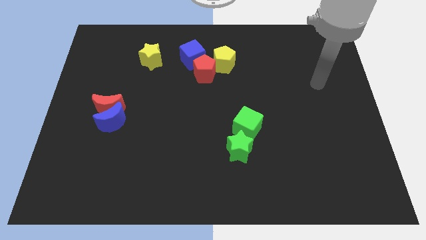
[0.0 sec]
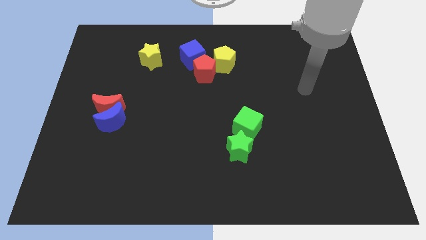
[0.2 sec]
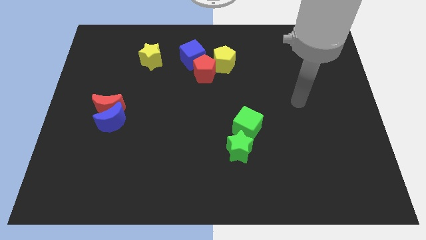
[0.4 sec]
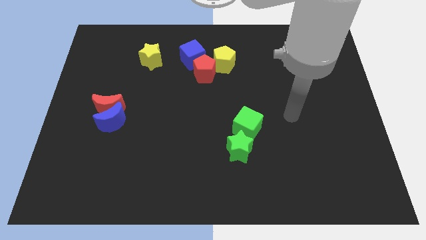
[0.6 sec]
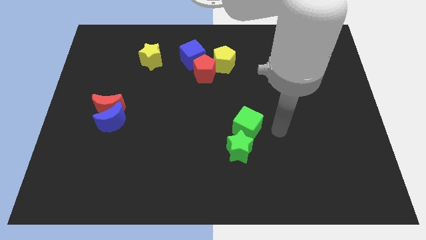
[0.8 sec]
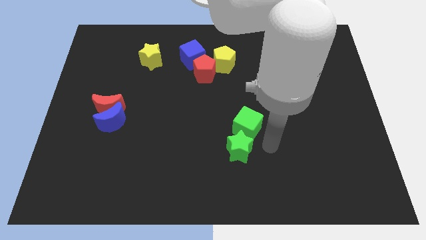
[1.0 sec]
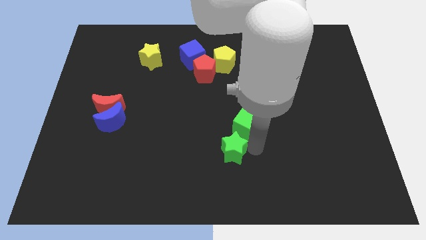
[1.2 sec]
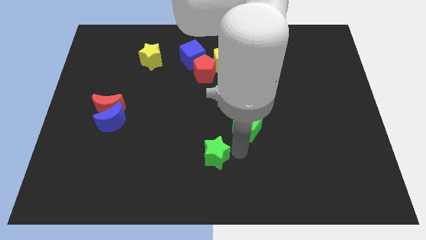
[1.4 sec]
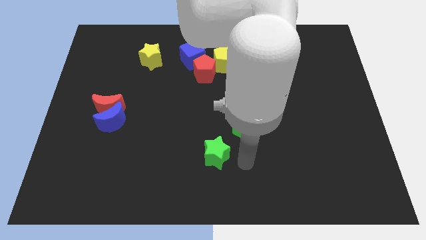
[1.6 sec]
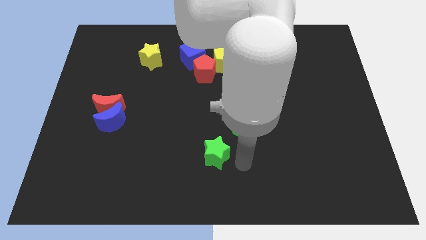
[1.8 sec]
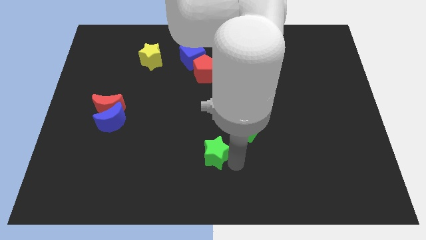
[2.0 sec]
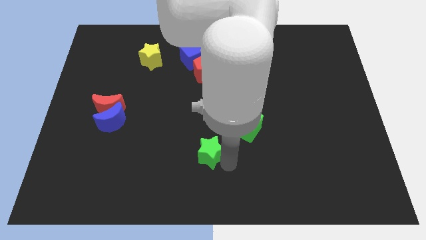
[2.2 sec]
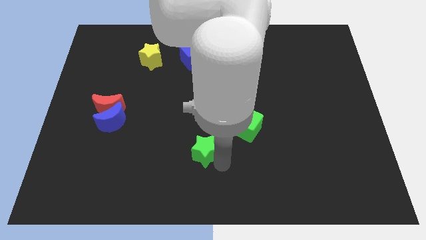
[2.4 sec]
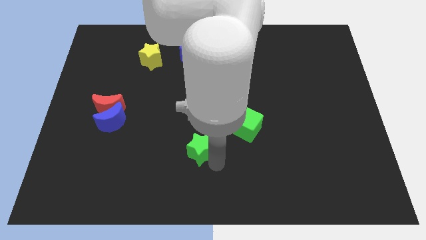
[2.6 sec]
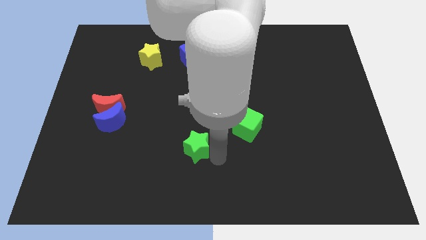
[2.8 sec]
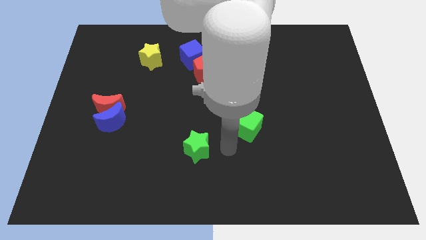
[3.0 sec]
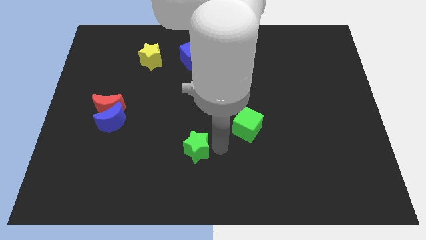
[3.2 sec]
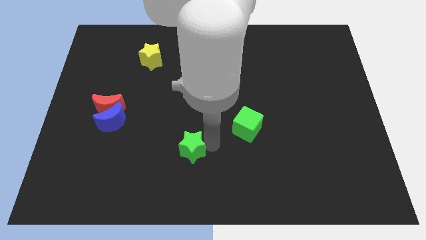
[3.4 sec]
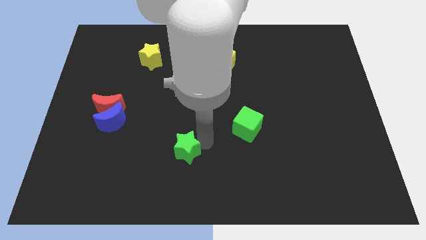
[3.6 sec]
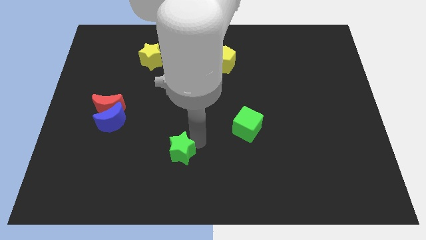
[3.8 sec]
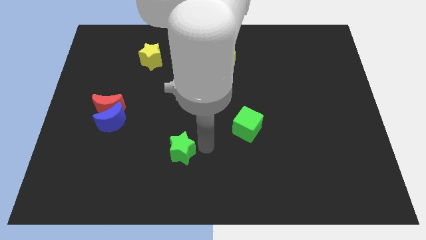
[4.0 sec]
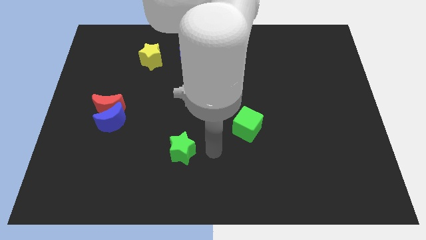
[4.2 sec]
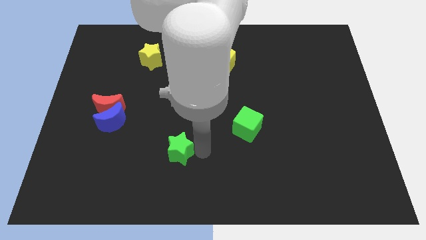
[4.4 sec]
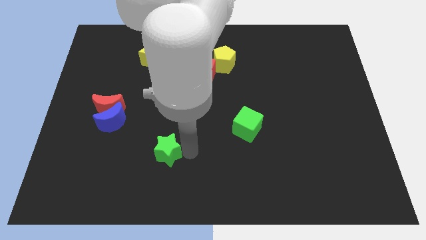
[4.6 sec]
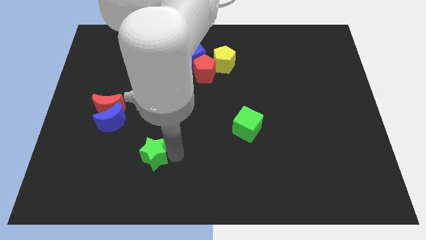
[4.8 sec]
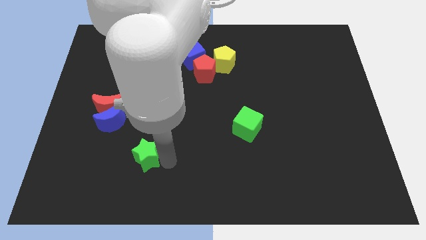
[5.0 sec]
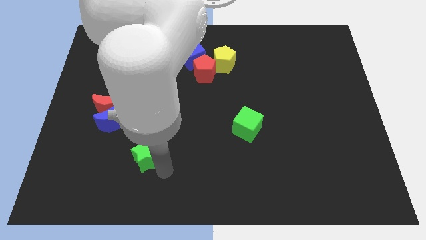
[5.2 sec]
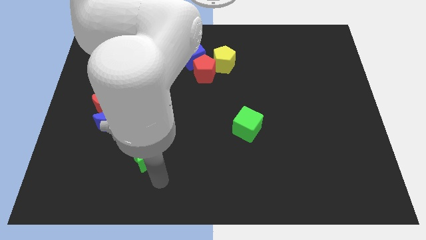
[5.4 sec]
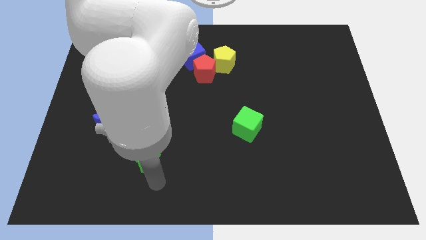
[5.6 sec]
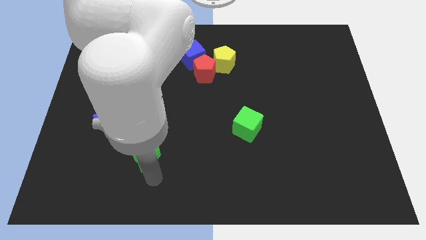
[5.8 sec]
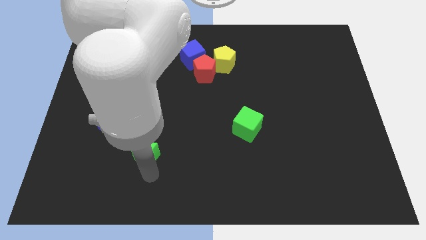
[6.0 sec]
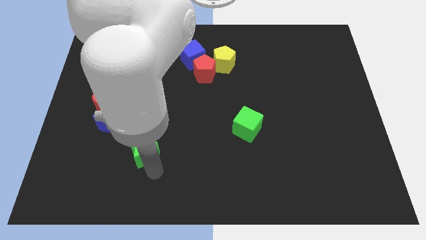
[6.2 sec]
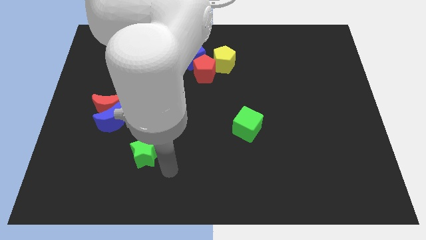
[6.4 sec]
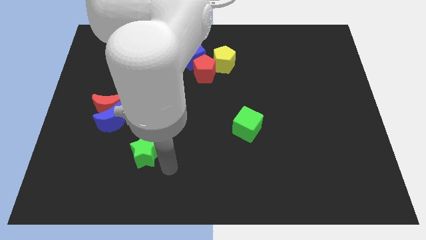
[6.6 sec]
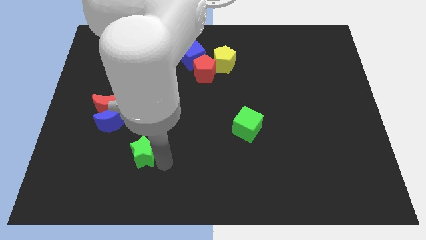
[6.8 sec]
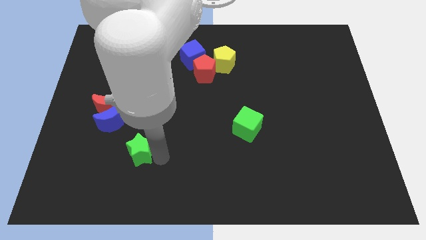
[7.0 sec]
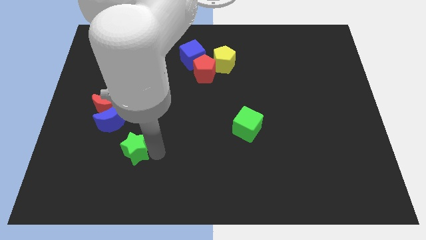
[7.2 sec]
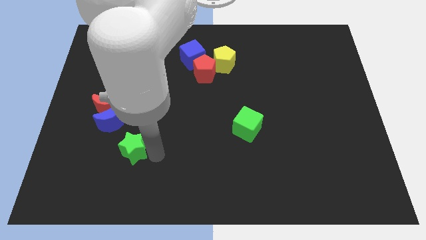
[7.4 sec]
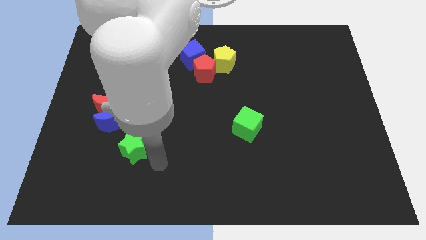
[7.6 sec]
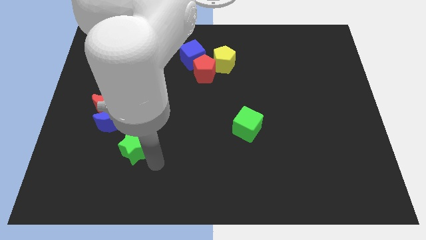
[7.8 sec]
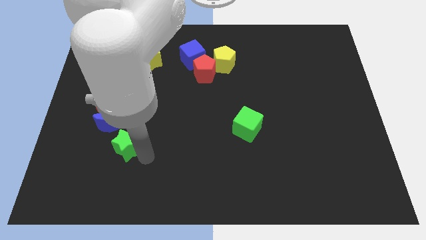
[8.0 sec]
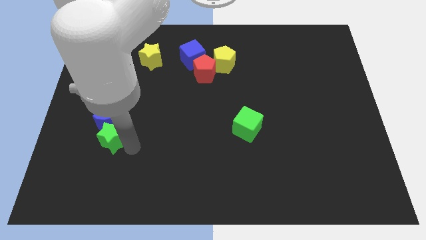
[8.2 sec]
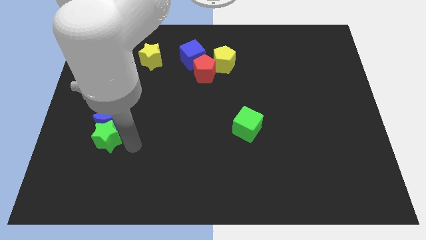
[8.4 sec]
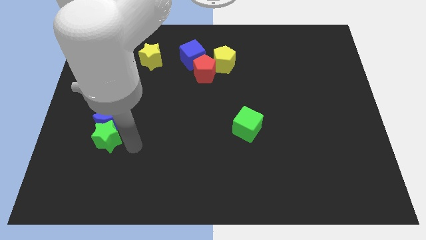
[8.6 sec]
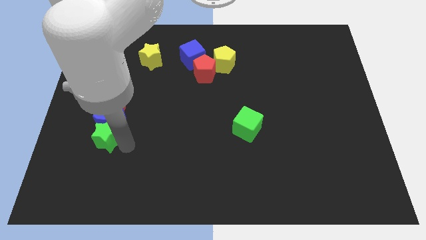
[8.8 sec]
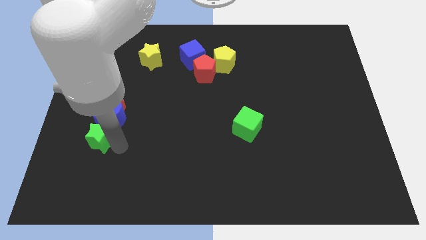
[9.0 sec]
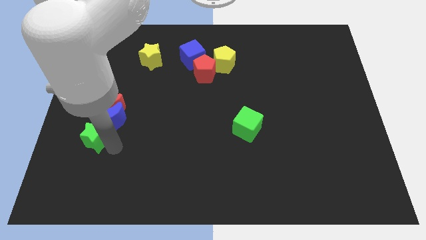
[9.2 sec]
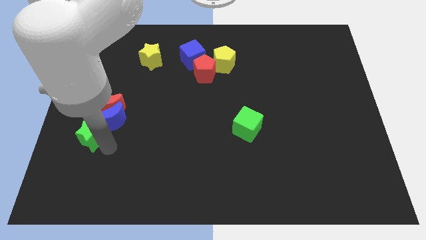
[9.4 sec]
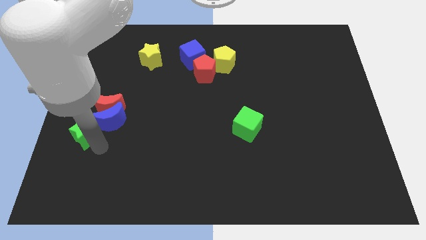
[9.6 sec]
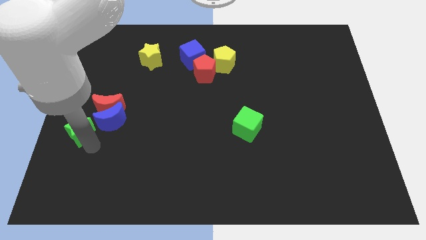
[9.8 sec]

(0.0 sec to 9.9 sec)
slide the green star to the center left
